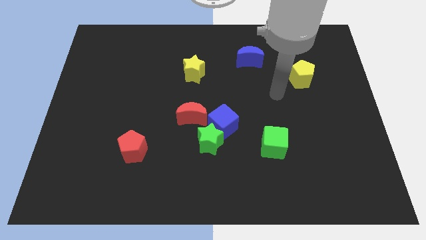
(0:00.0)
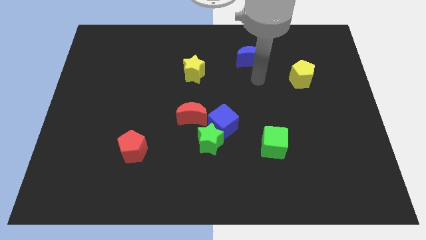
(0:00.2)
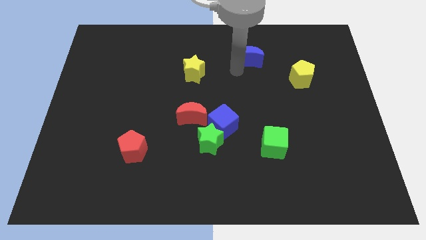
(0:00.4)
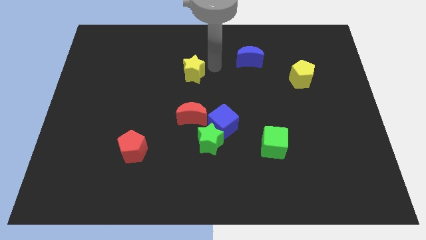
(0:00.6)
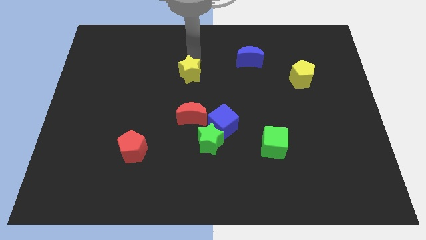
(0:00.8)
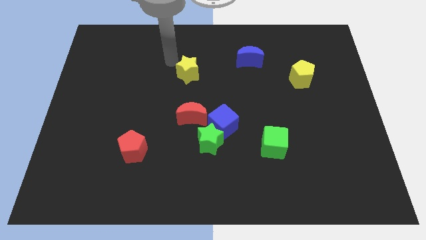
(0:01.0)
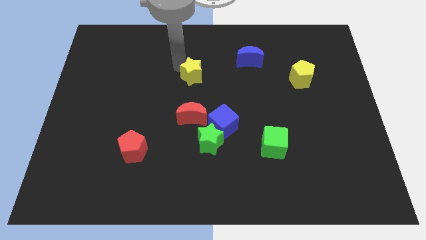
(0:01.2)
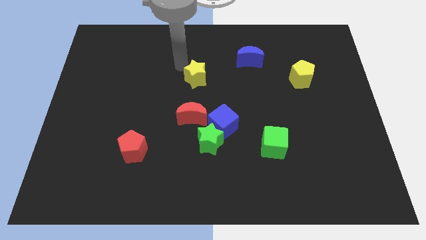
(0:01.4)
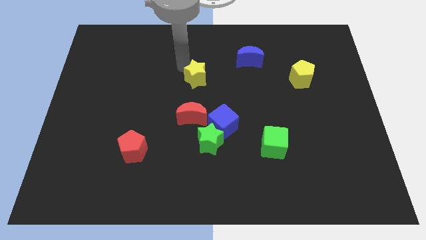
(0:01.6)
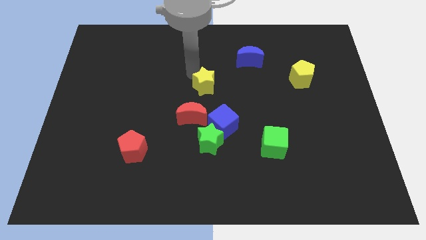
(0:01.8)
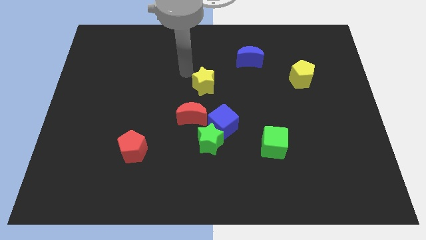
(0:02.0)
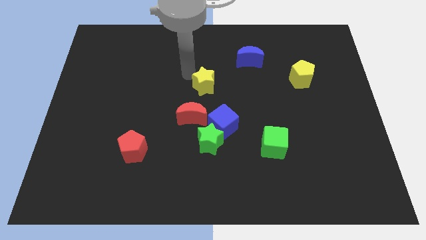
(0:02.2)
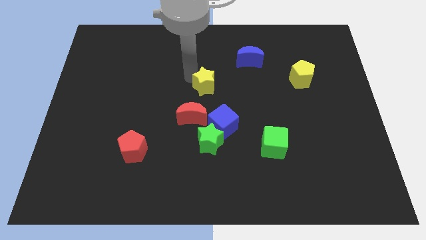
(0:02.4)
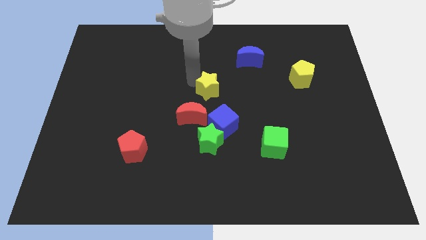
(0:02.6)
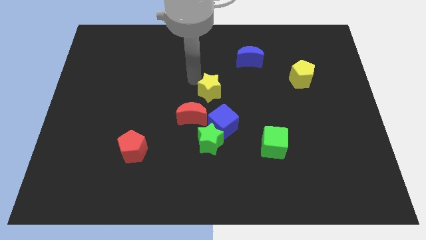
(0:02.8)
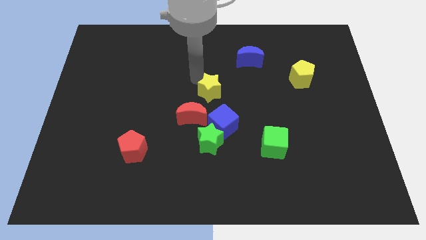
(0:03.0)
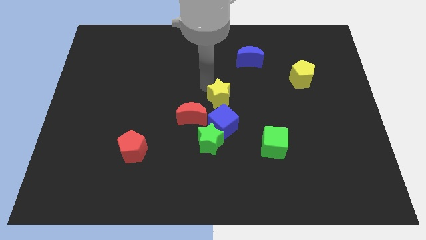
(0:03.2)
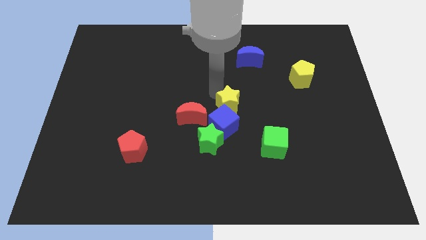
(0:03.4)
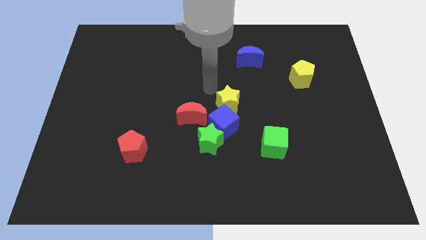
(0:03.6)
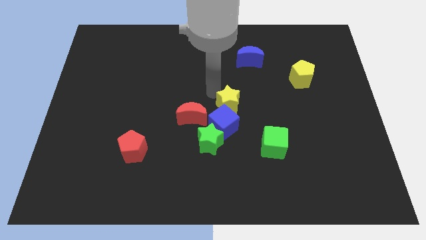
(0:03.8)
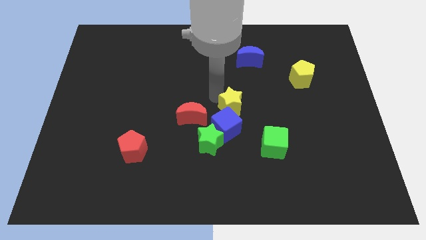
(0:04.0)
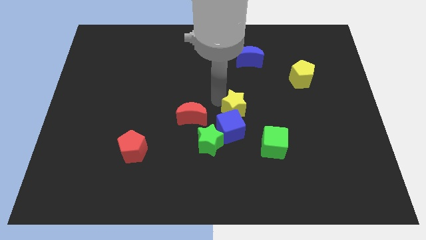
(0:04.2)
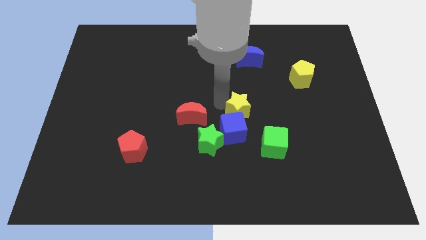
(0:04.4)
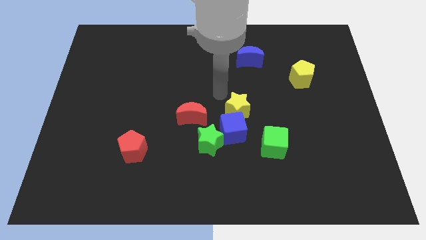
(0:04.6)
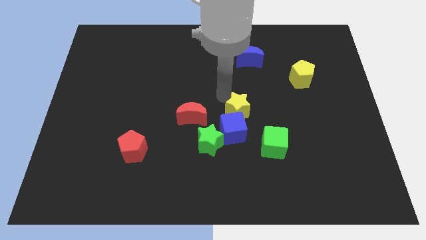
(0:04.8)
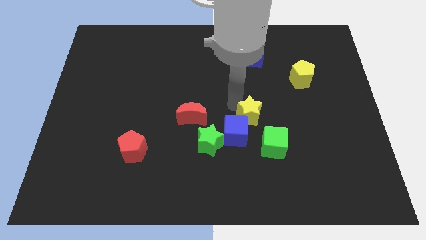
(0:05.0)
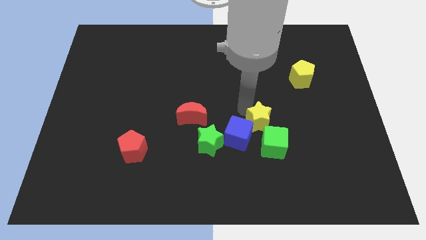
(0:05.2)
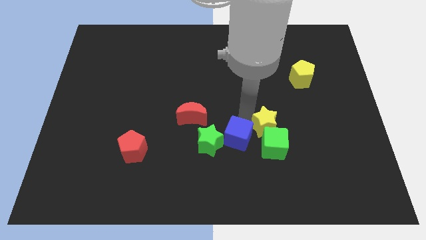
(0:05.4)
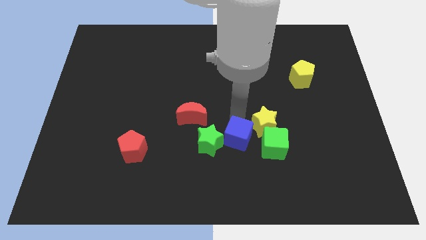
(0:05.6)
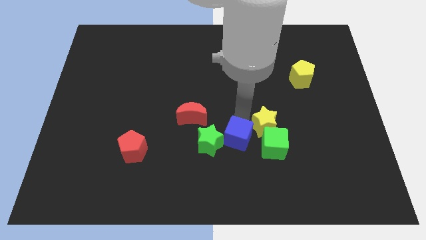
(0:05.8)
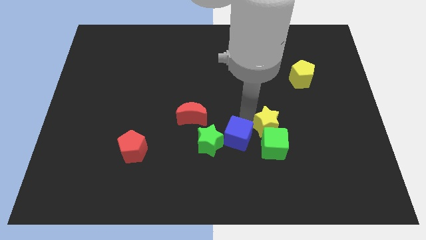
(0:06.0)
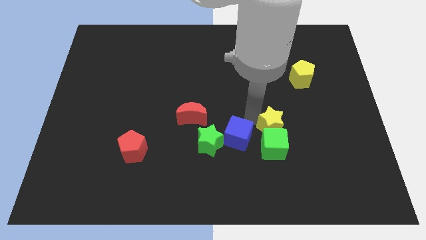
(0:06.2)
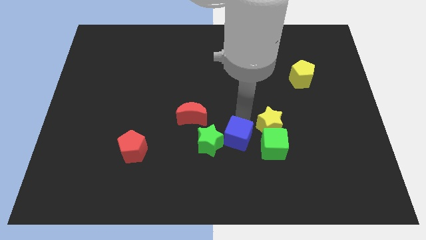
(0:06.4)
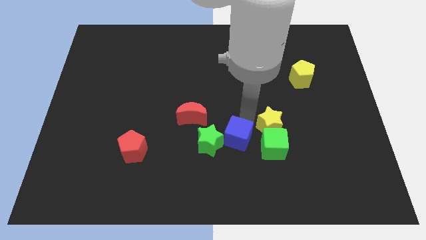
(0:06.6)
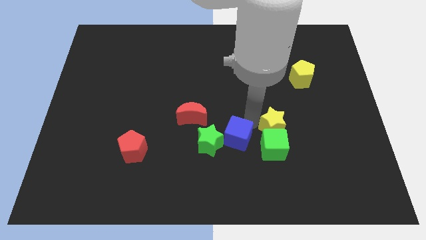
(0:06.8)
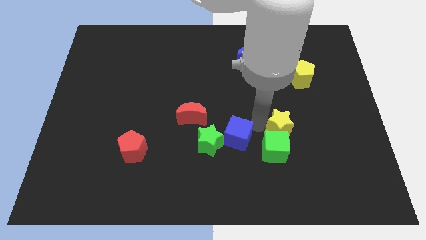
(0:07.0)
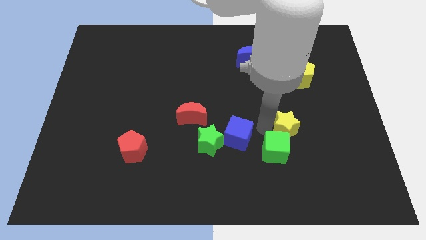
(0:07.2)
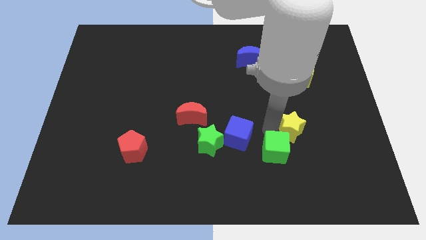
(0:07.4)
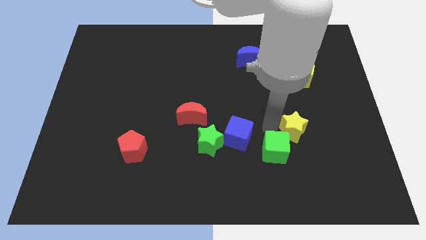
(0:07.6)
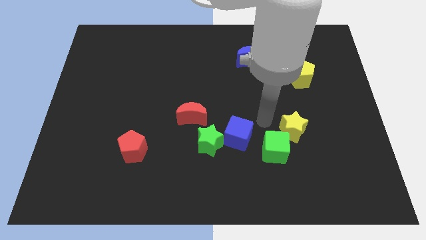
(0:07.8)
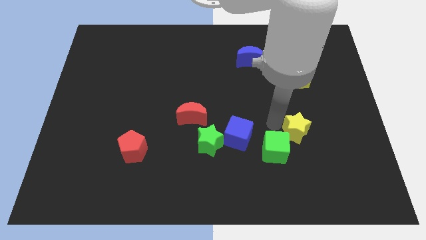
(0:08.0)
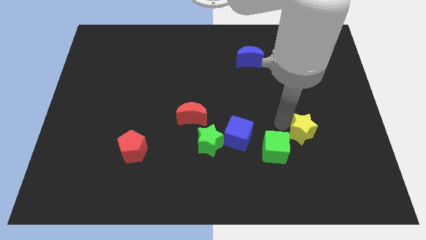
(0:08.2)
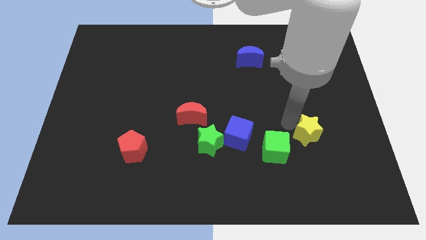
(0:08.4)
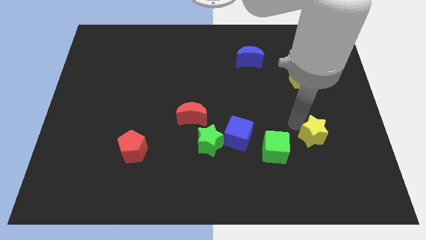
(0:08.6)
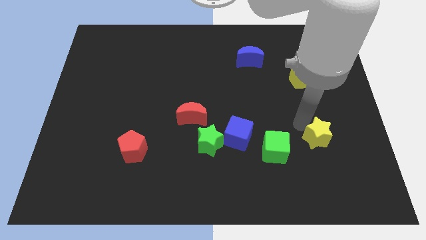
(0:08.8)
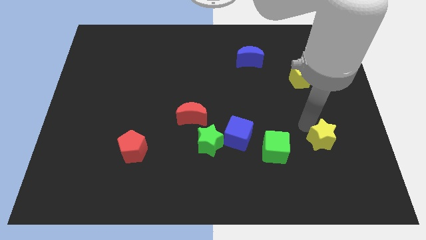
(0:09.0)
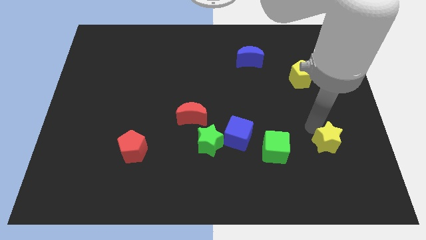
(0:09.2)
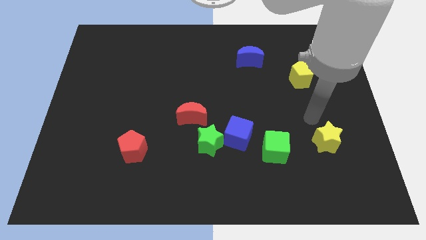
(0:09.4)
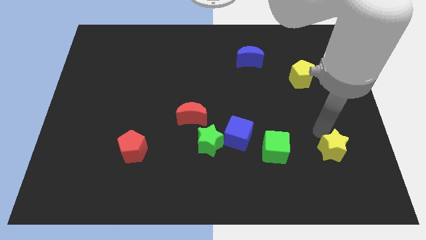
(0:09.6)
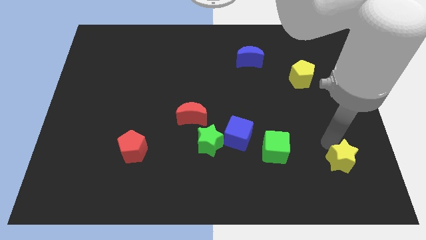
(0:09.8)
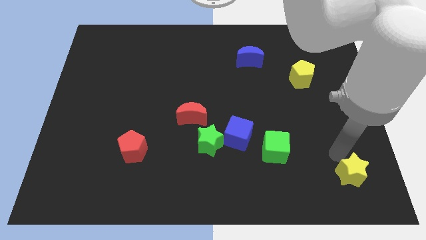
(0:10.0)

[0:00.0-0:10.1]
push the yellow star to the bottom right corner

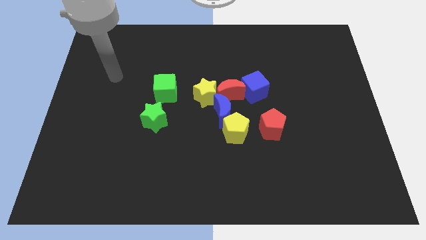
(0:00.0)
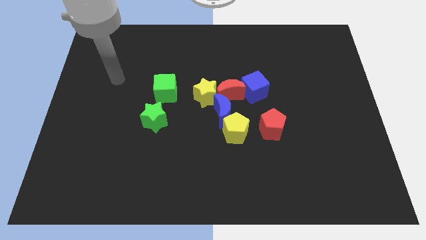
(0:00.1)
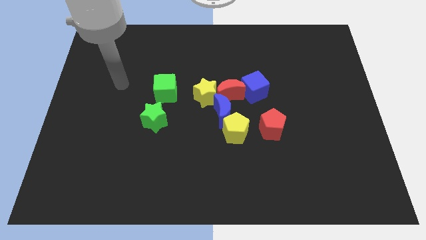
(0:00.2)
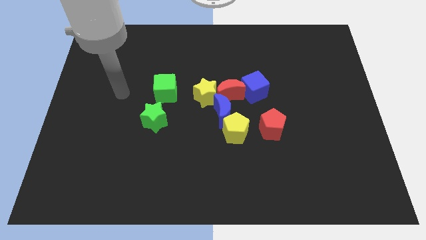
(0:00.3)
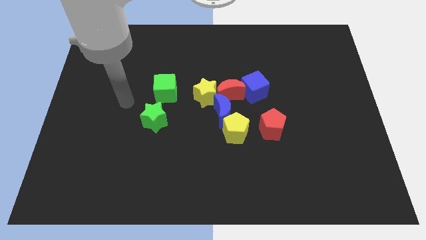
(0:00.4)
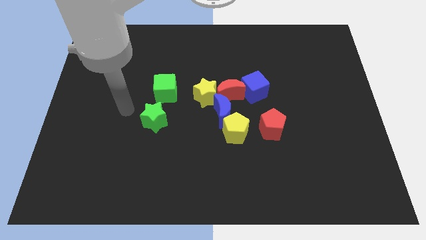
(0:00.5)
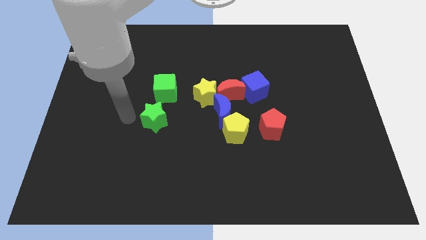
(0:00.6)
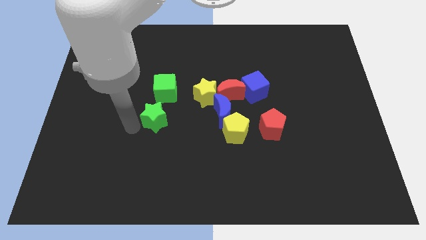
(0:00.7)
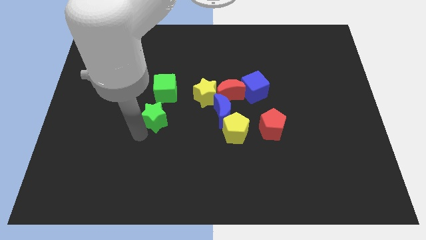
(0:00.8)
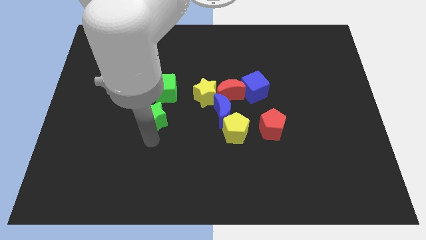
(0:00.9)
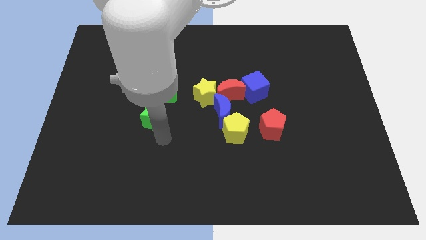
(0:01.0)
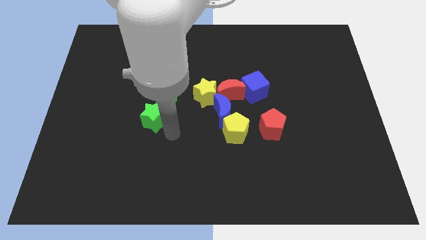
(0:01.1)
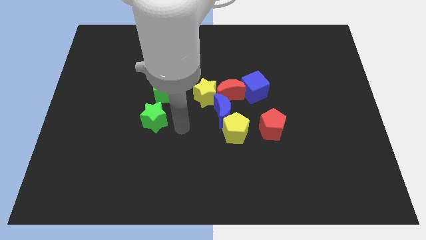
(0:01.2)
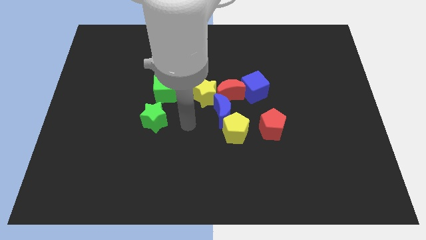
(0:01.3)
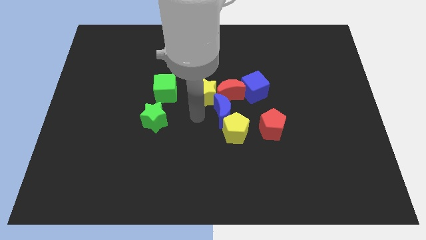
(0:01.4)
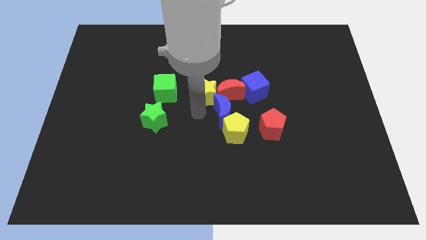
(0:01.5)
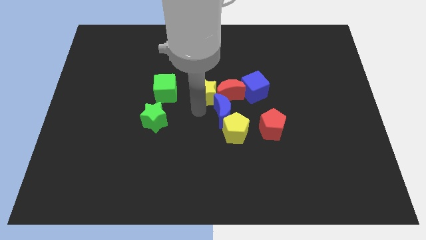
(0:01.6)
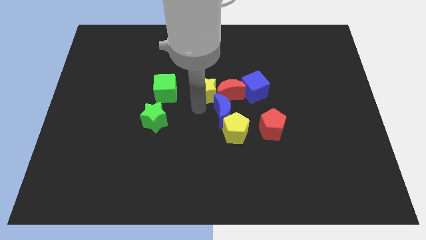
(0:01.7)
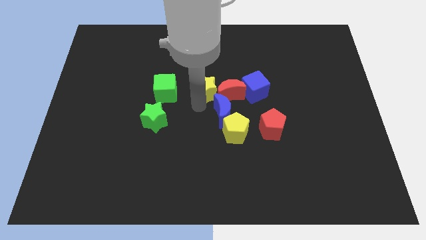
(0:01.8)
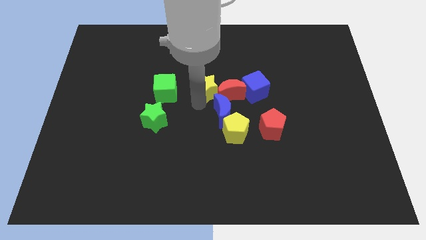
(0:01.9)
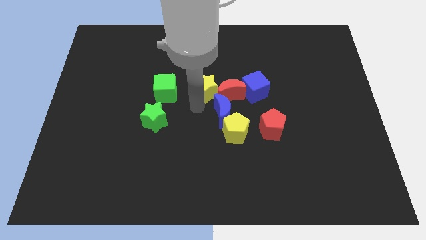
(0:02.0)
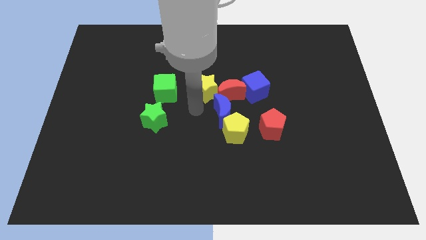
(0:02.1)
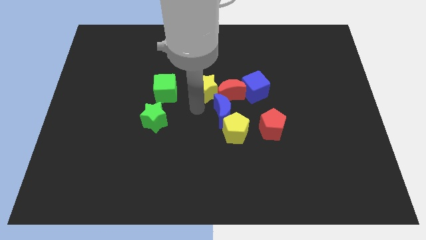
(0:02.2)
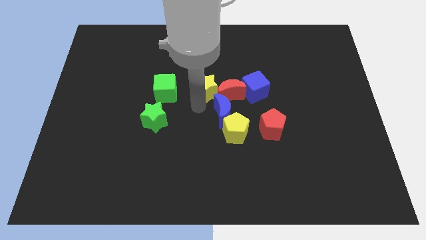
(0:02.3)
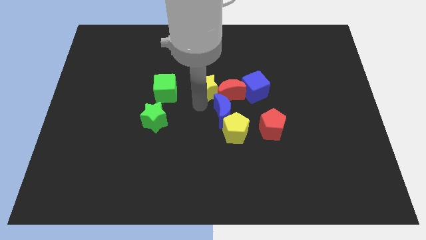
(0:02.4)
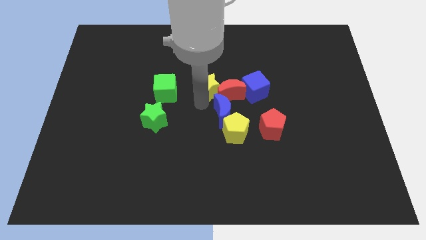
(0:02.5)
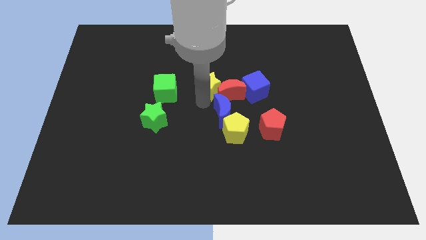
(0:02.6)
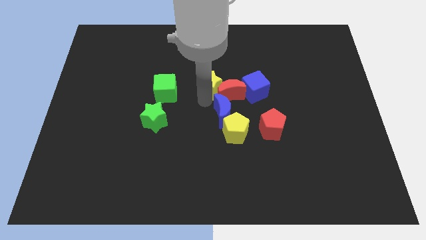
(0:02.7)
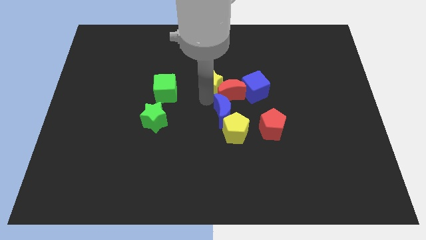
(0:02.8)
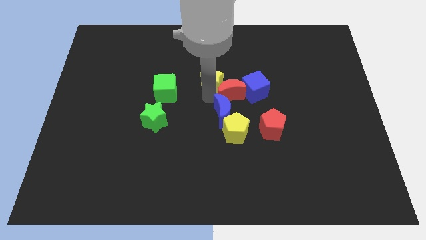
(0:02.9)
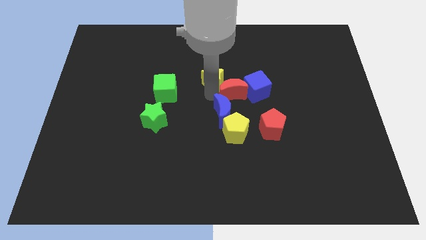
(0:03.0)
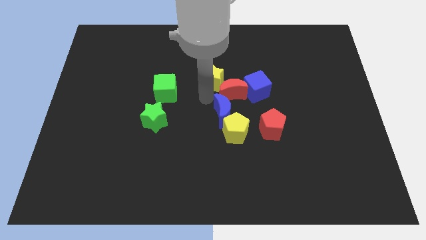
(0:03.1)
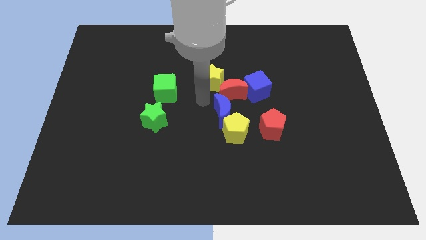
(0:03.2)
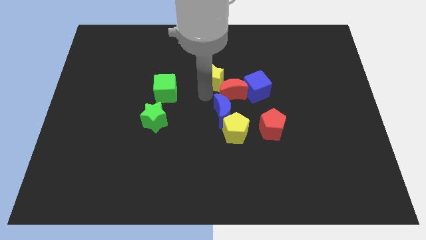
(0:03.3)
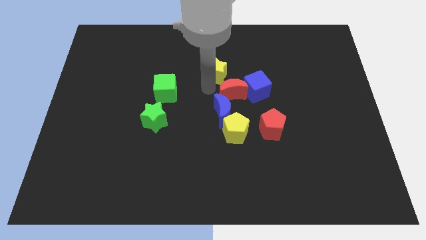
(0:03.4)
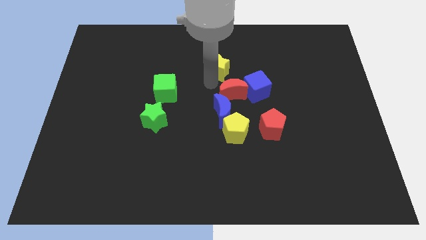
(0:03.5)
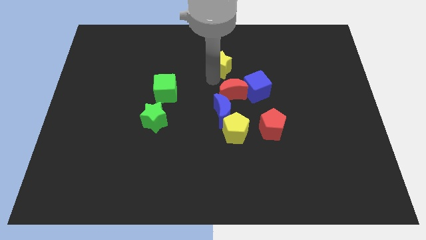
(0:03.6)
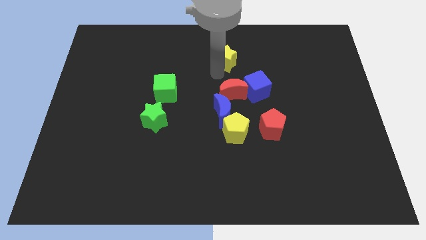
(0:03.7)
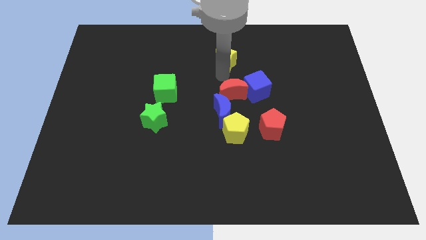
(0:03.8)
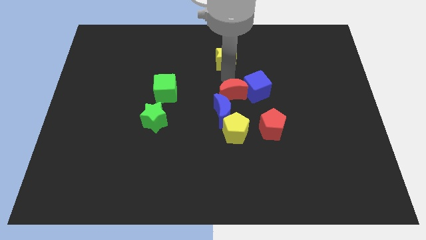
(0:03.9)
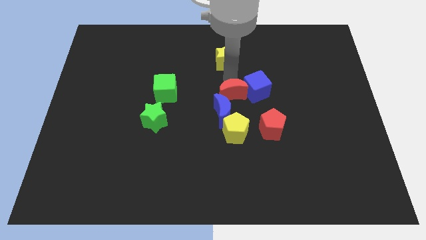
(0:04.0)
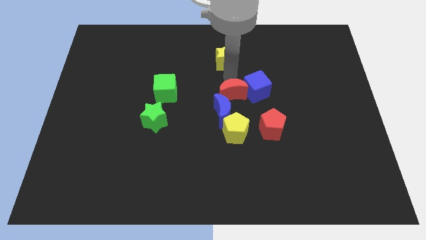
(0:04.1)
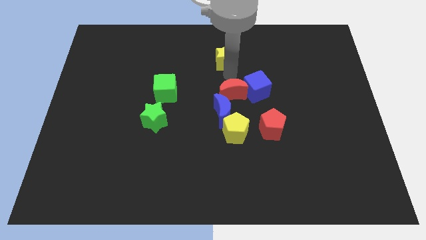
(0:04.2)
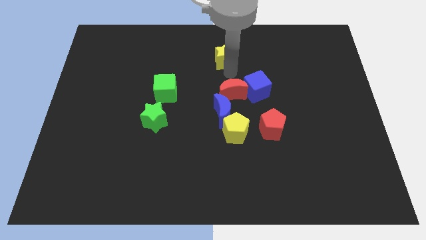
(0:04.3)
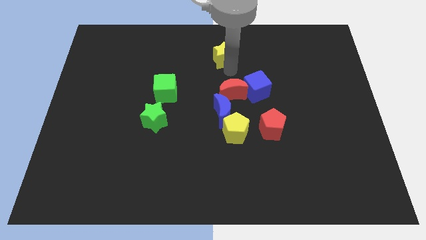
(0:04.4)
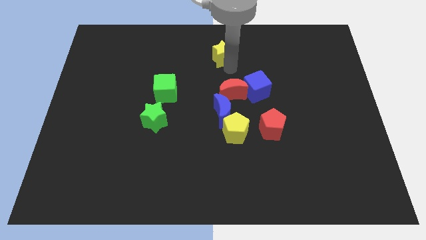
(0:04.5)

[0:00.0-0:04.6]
slide the yellow star to the top
